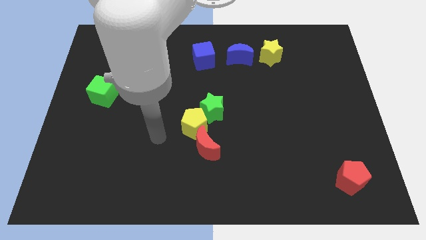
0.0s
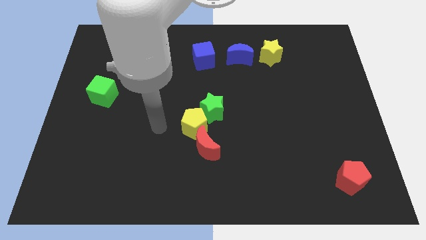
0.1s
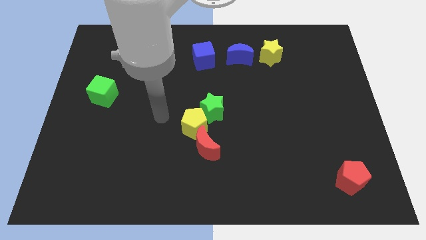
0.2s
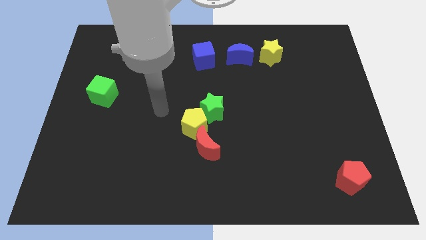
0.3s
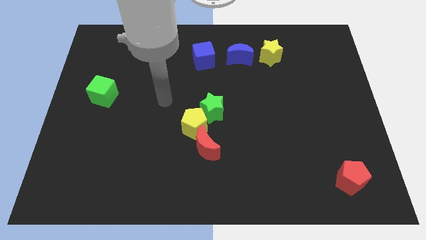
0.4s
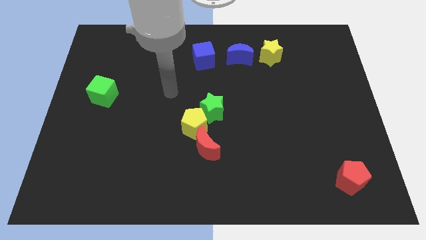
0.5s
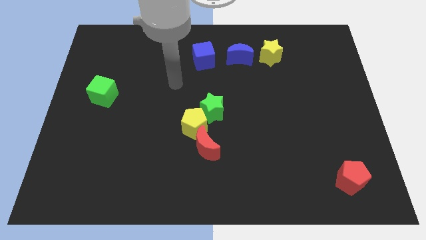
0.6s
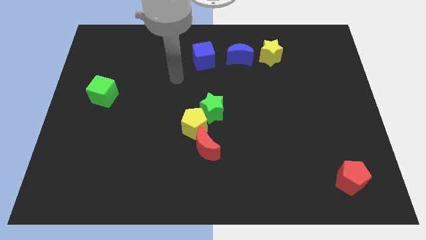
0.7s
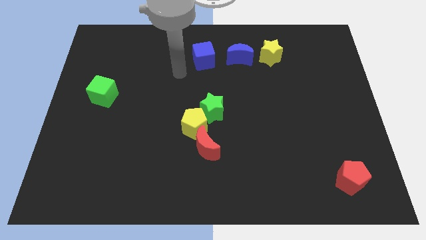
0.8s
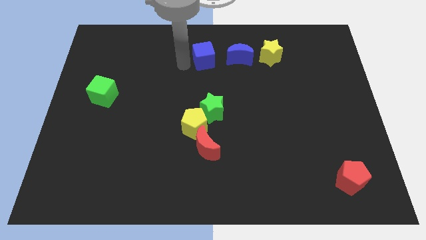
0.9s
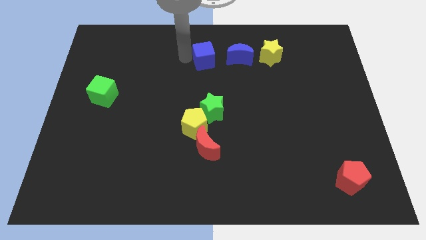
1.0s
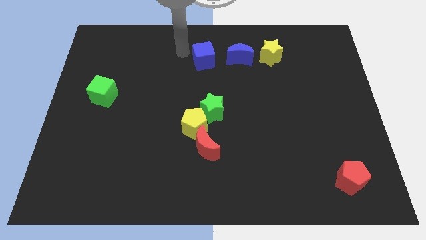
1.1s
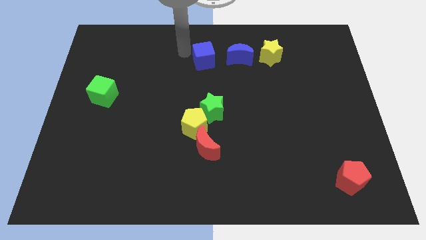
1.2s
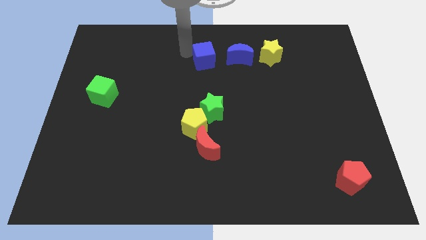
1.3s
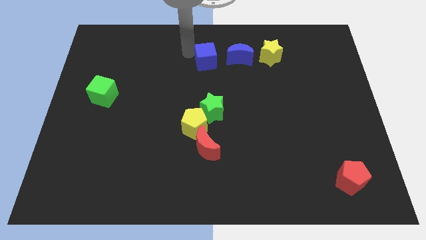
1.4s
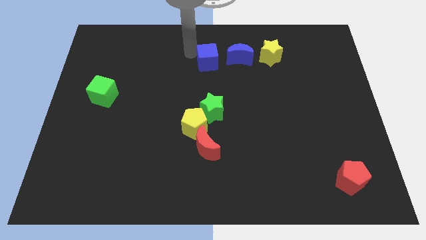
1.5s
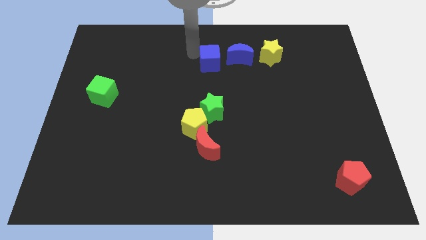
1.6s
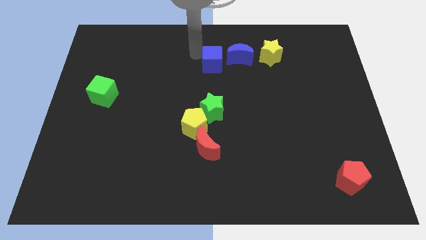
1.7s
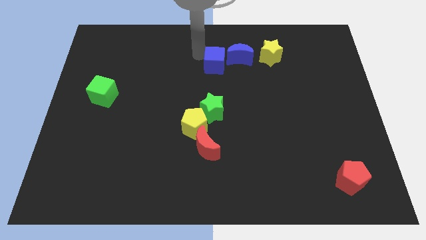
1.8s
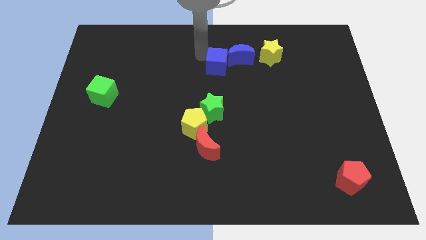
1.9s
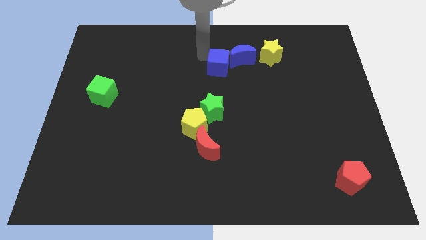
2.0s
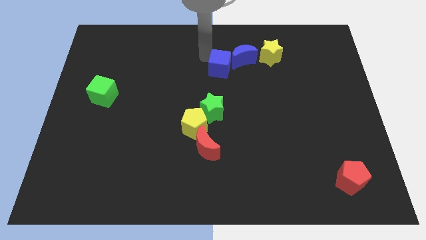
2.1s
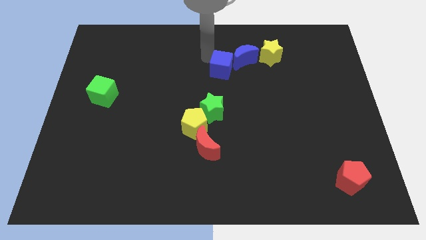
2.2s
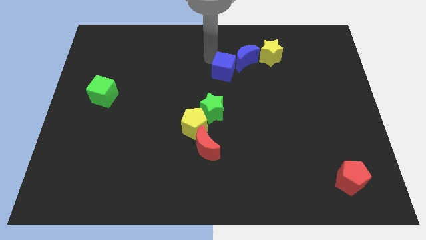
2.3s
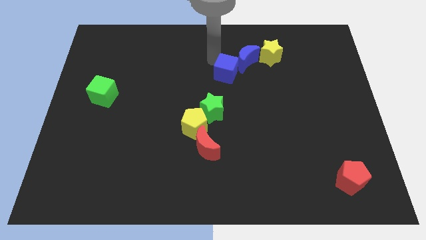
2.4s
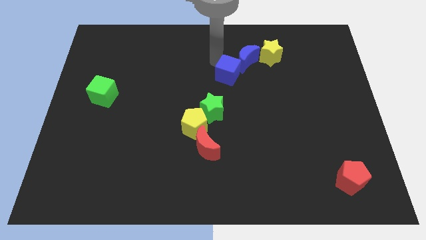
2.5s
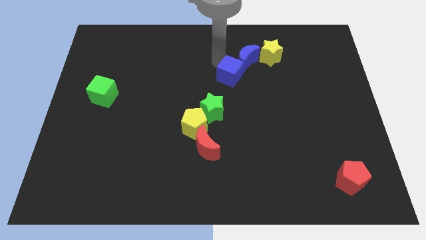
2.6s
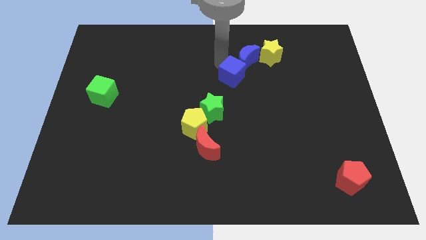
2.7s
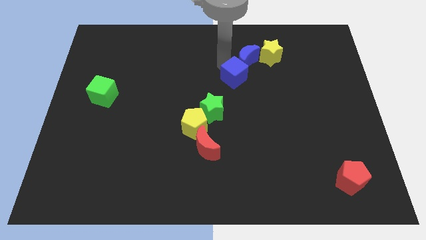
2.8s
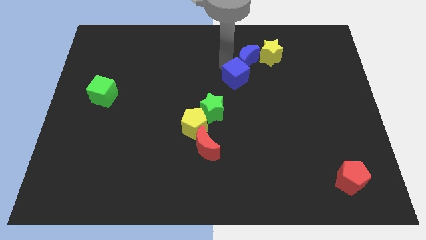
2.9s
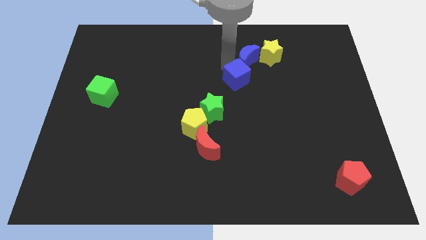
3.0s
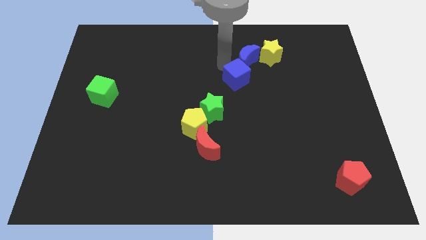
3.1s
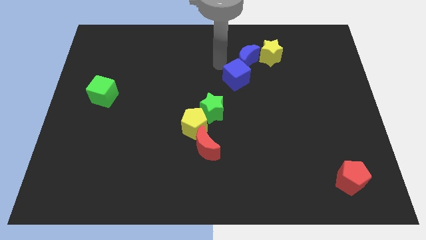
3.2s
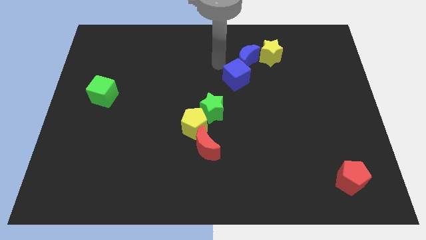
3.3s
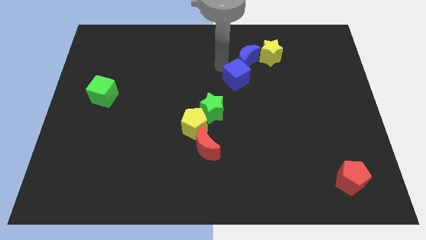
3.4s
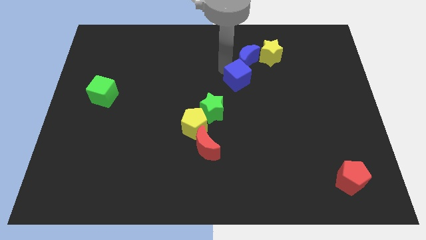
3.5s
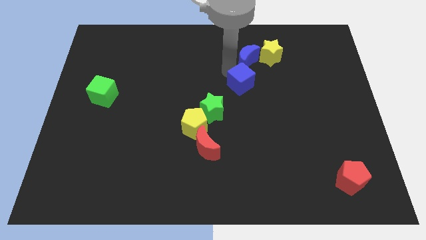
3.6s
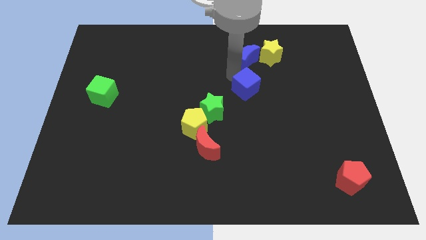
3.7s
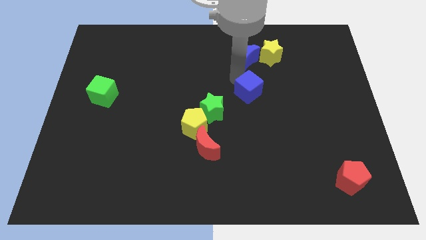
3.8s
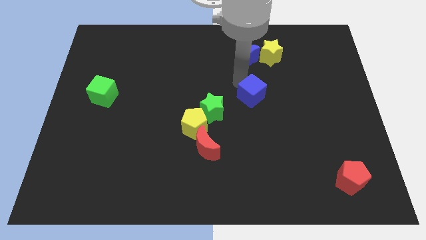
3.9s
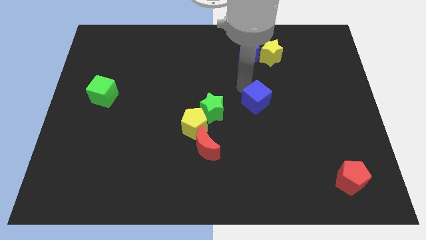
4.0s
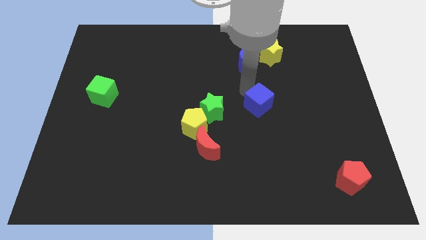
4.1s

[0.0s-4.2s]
move the blue cube downwards and to the right

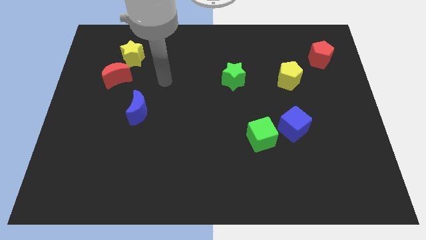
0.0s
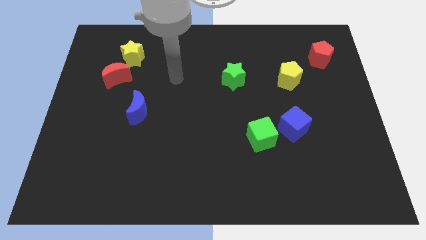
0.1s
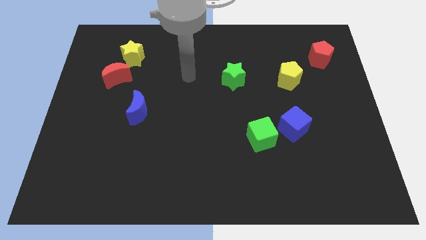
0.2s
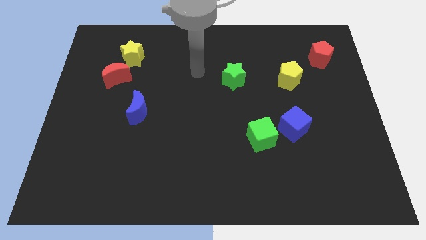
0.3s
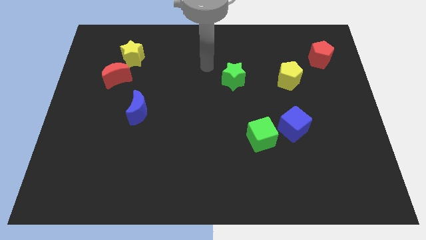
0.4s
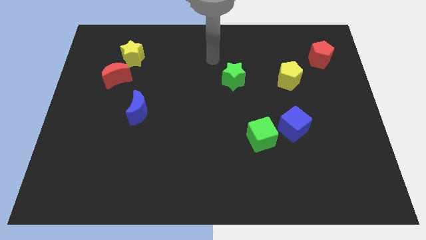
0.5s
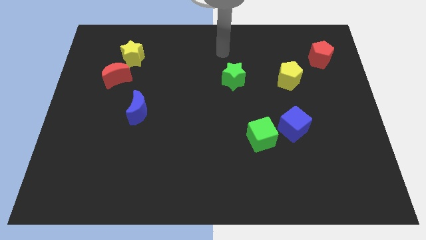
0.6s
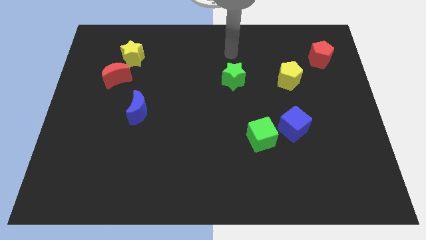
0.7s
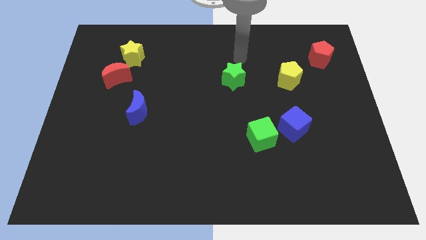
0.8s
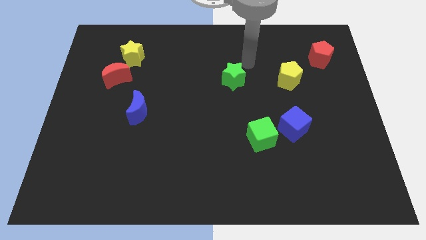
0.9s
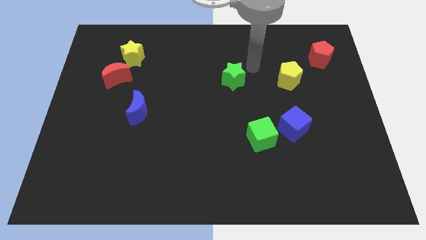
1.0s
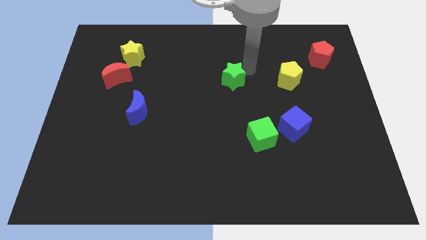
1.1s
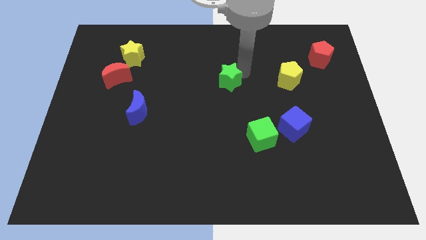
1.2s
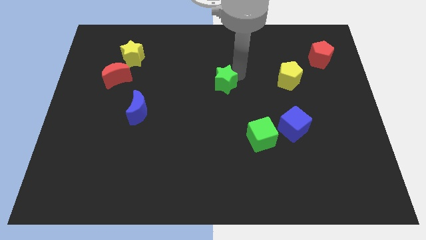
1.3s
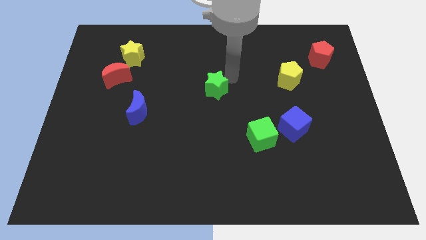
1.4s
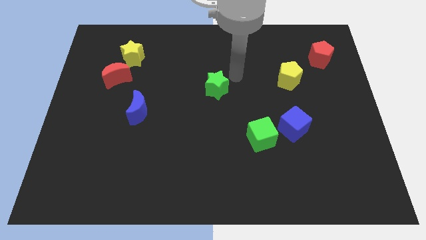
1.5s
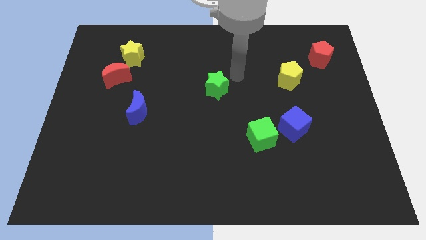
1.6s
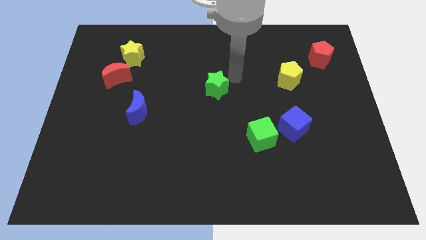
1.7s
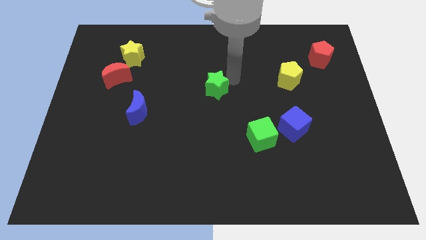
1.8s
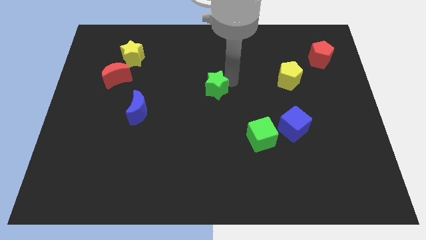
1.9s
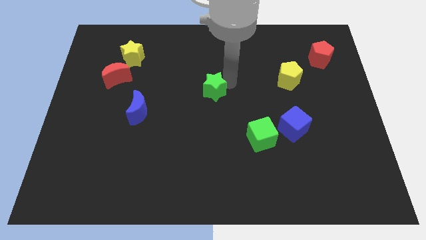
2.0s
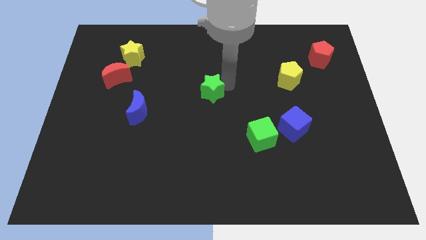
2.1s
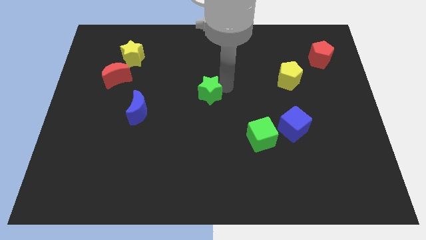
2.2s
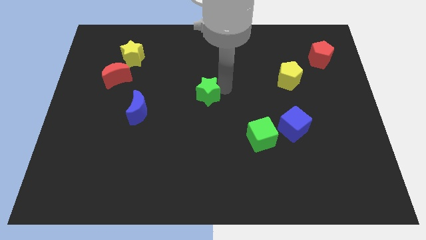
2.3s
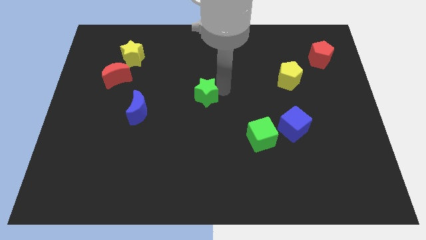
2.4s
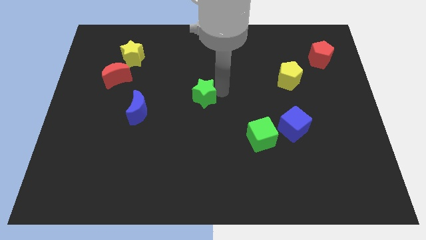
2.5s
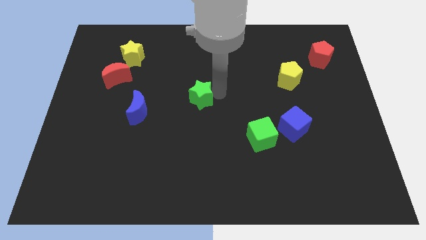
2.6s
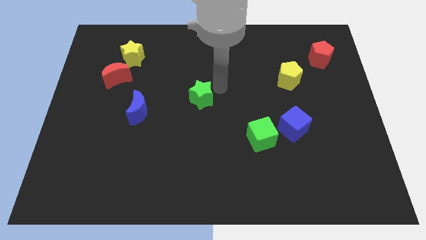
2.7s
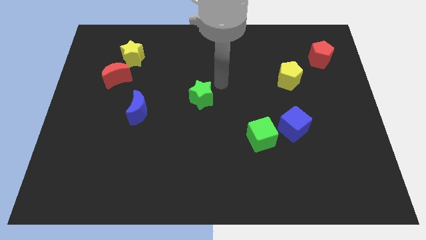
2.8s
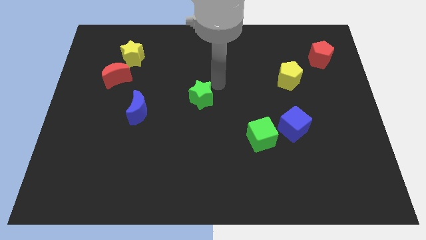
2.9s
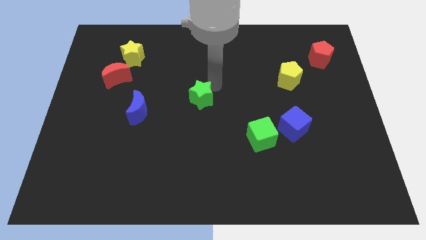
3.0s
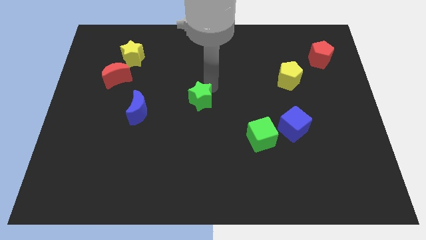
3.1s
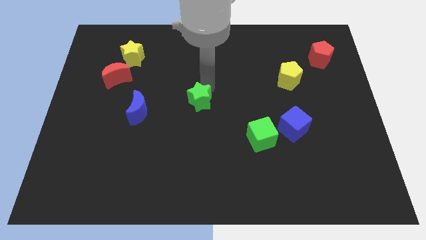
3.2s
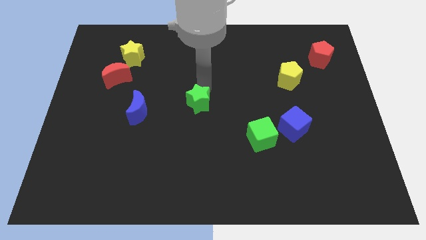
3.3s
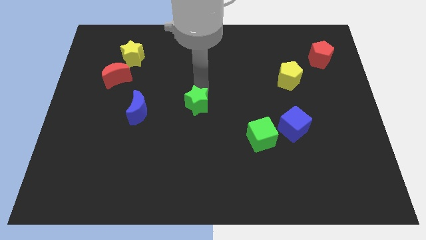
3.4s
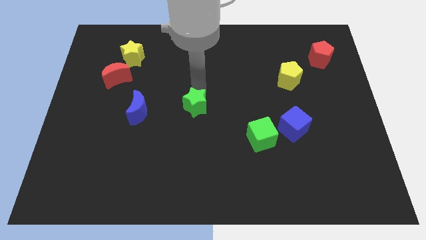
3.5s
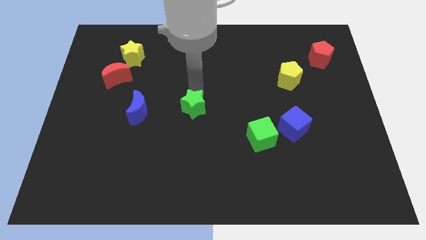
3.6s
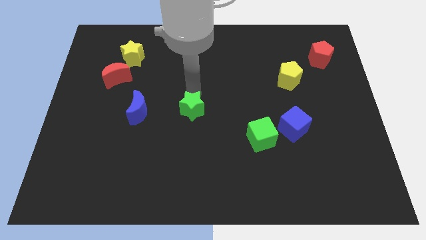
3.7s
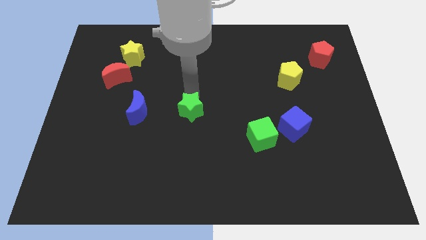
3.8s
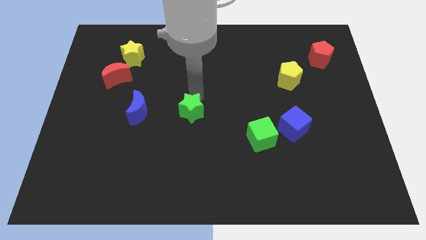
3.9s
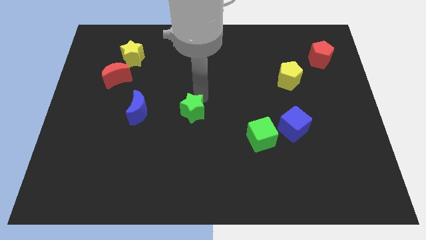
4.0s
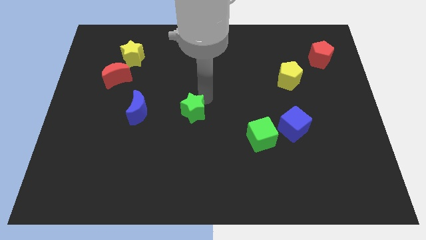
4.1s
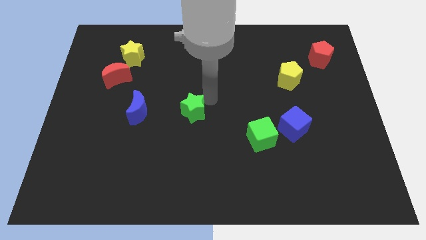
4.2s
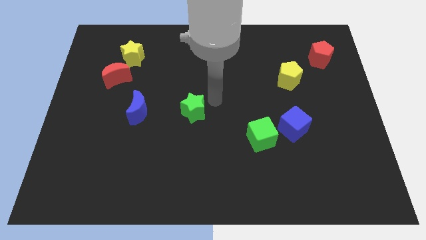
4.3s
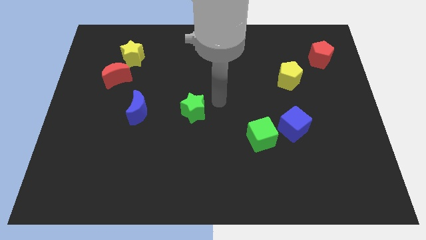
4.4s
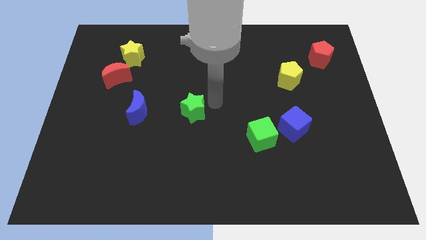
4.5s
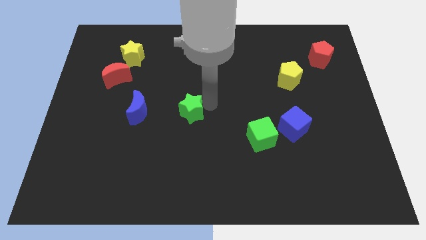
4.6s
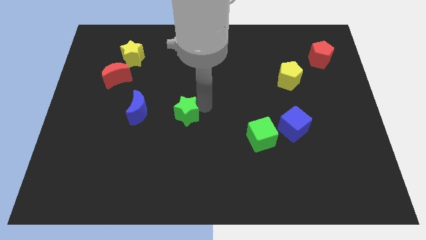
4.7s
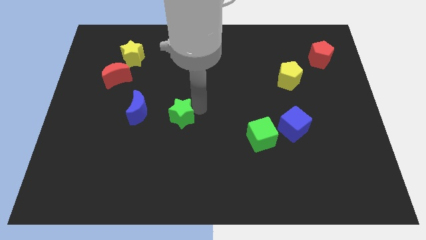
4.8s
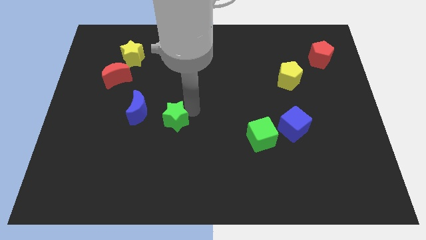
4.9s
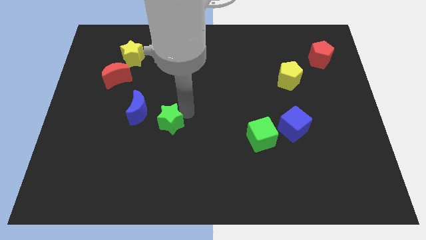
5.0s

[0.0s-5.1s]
slide the green star down and left
